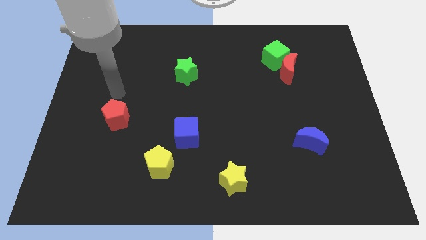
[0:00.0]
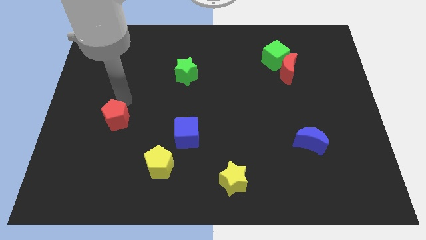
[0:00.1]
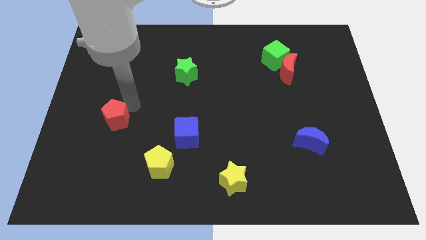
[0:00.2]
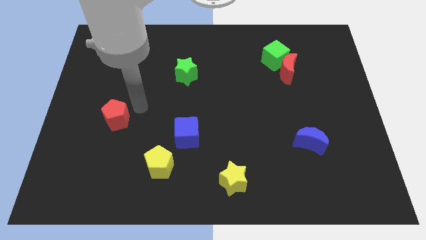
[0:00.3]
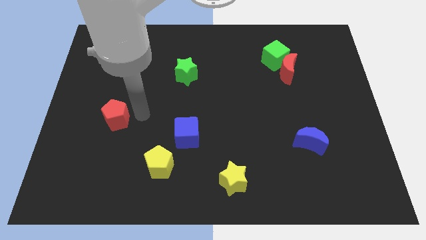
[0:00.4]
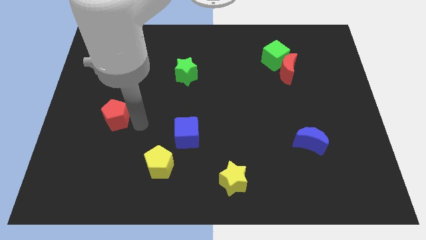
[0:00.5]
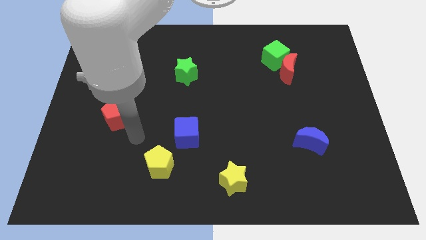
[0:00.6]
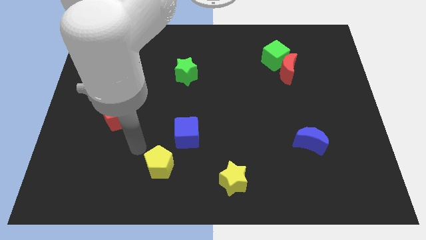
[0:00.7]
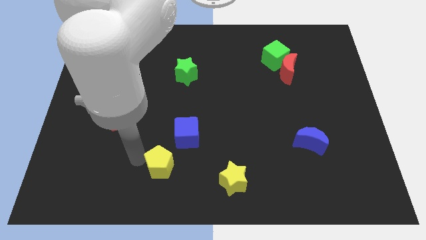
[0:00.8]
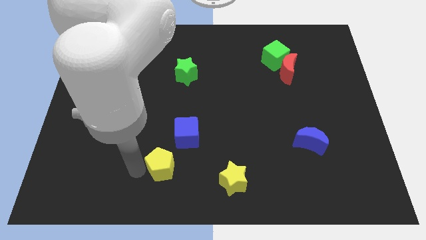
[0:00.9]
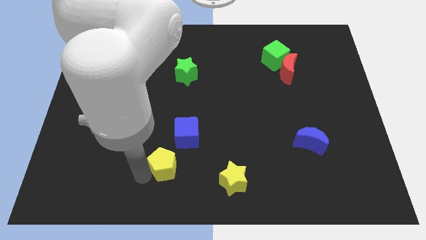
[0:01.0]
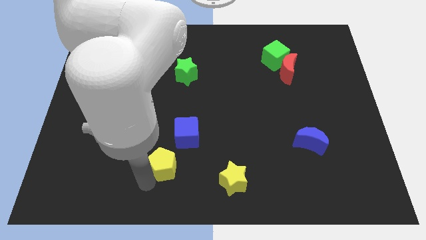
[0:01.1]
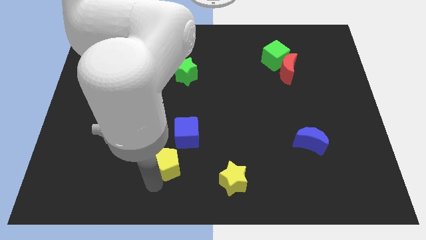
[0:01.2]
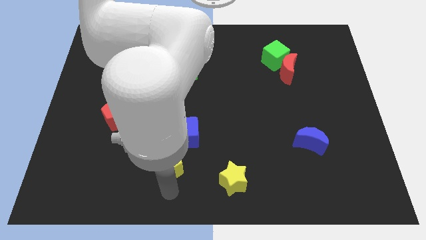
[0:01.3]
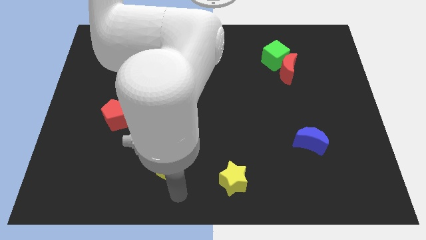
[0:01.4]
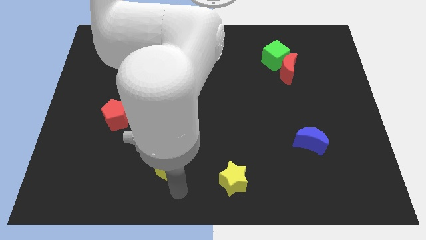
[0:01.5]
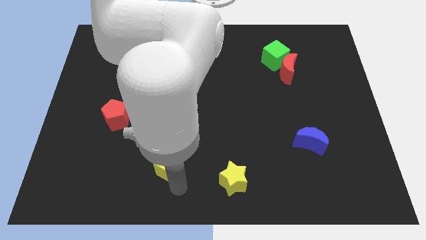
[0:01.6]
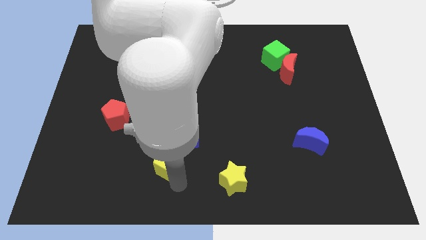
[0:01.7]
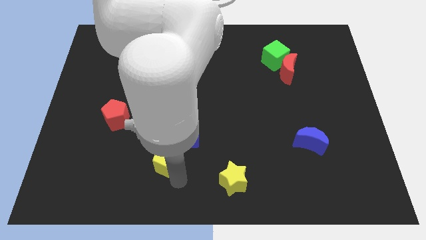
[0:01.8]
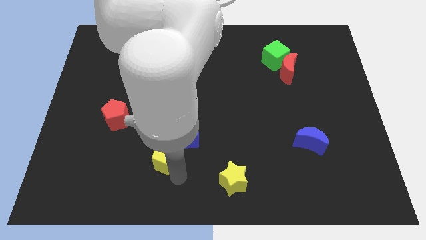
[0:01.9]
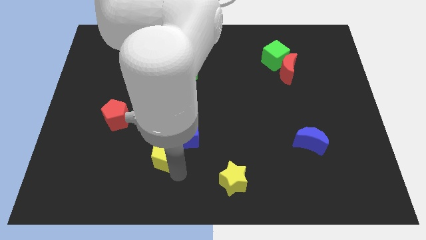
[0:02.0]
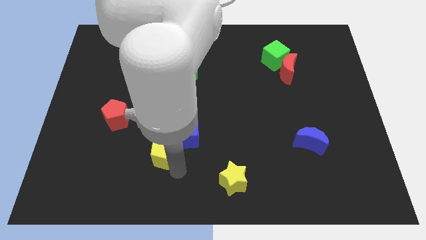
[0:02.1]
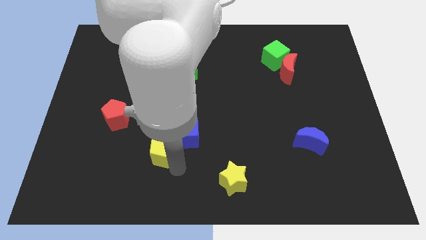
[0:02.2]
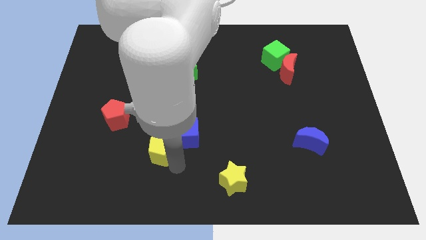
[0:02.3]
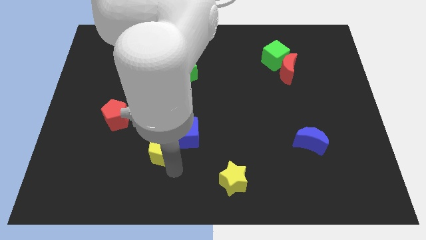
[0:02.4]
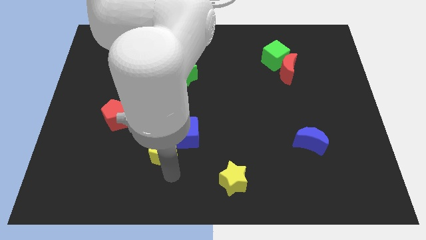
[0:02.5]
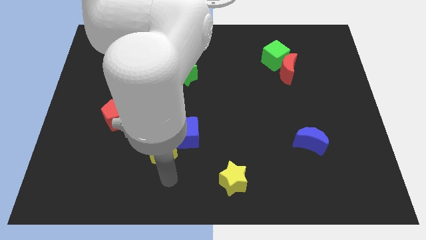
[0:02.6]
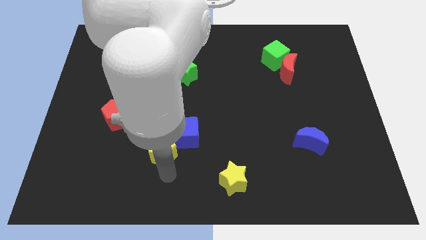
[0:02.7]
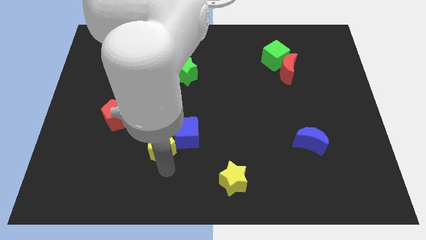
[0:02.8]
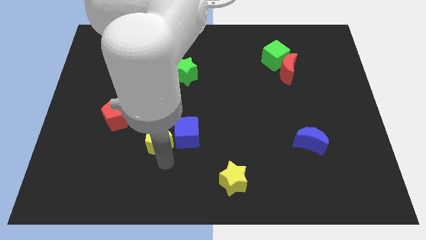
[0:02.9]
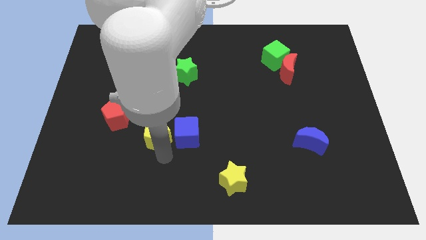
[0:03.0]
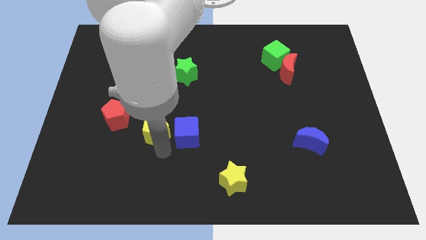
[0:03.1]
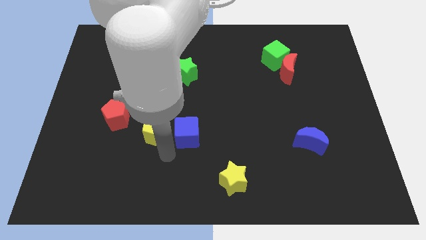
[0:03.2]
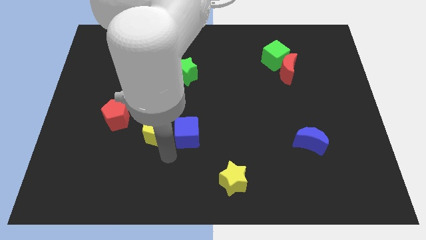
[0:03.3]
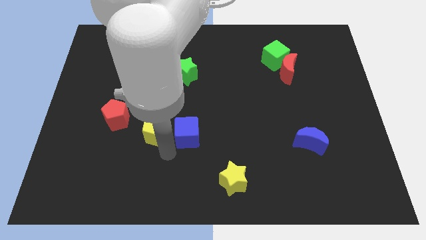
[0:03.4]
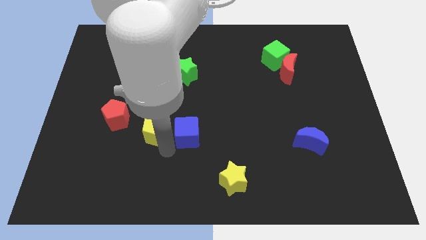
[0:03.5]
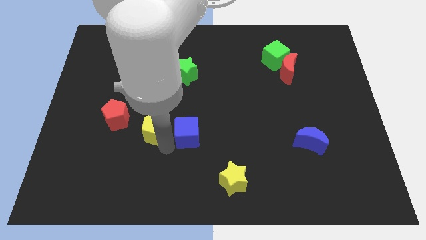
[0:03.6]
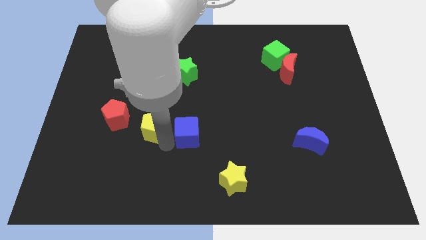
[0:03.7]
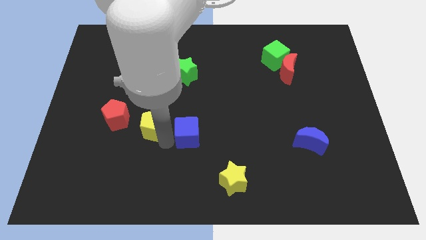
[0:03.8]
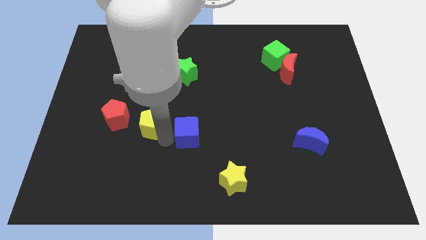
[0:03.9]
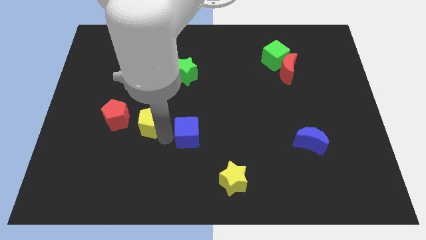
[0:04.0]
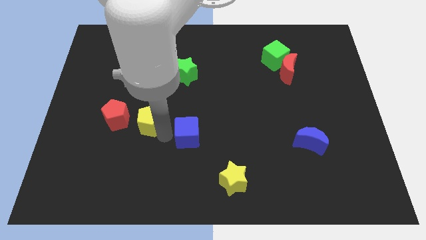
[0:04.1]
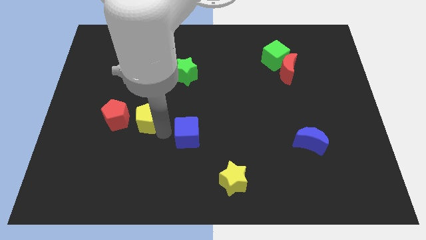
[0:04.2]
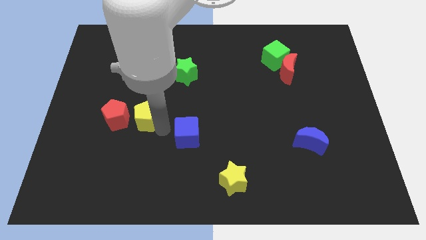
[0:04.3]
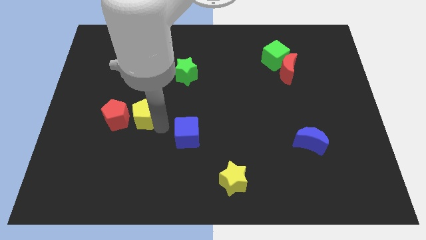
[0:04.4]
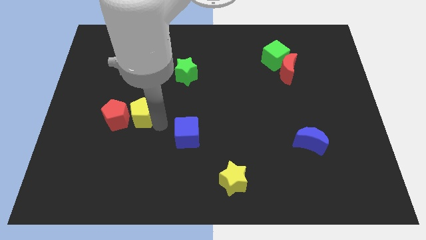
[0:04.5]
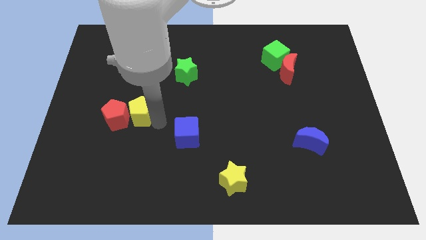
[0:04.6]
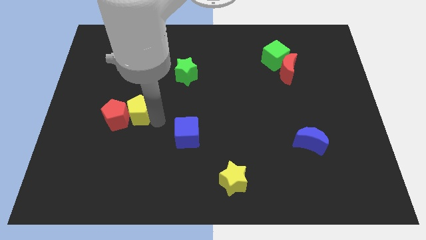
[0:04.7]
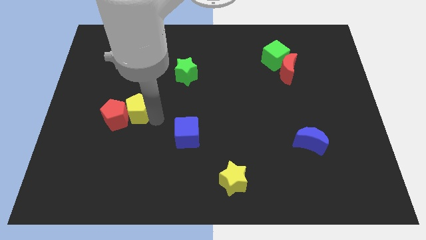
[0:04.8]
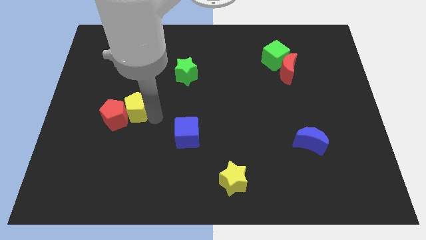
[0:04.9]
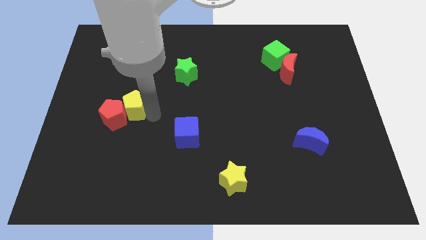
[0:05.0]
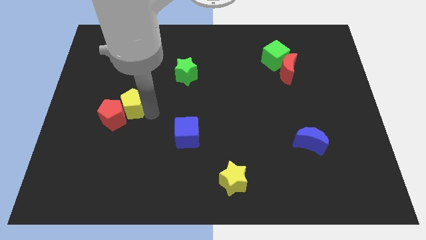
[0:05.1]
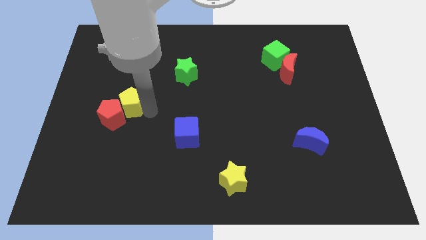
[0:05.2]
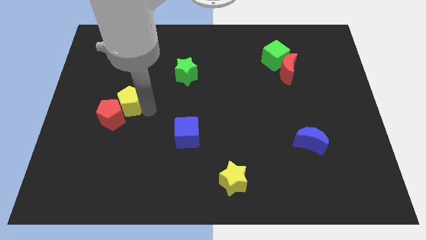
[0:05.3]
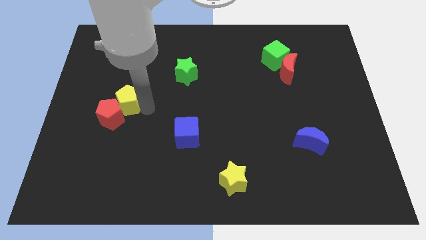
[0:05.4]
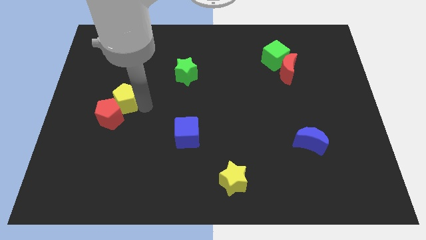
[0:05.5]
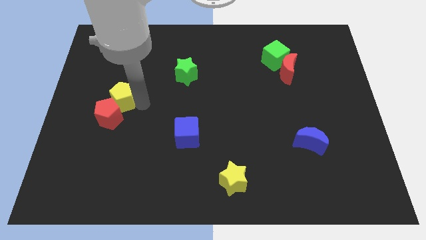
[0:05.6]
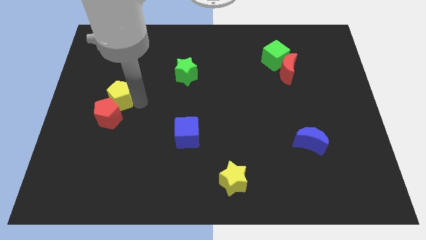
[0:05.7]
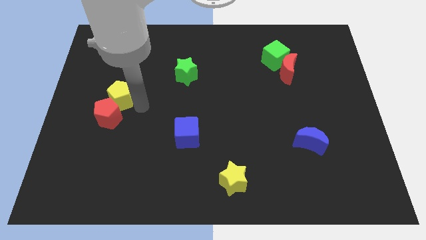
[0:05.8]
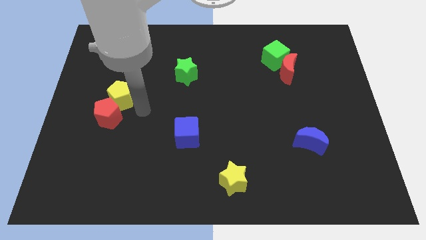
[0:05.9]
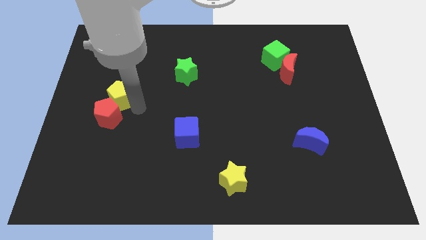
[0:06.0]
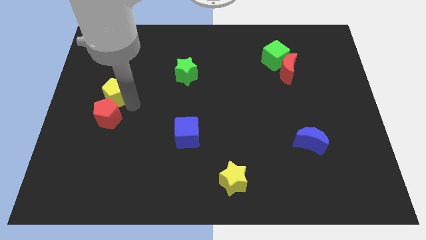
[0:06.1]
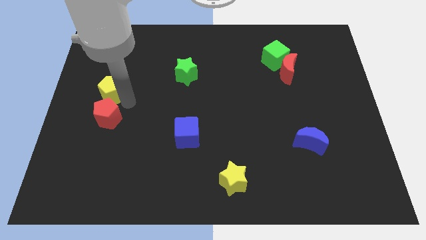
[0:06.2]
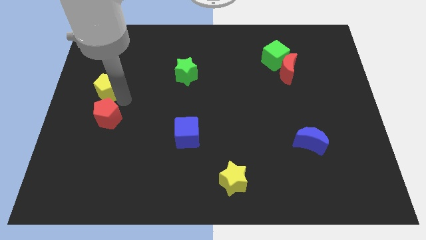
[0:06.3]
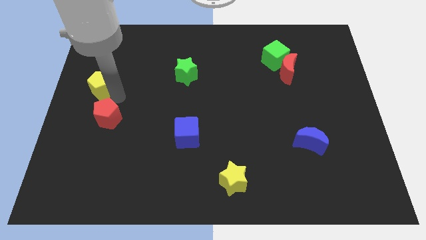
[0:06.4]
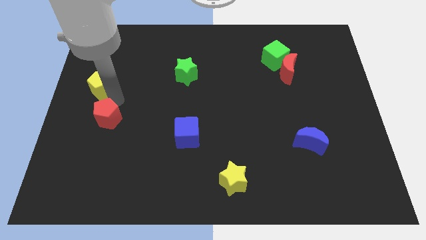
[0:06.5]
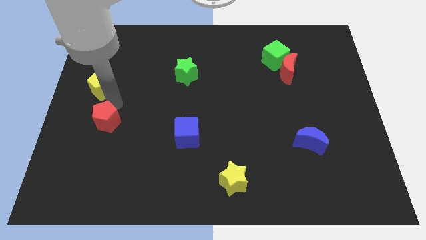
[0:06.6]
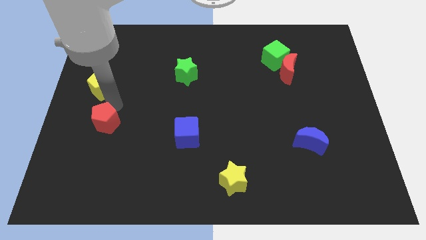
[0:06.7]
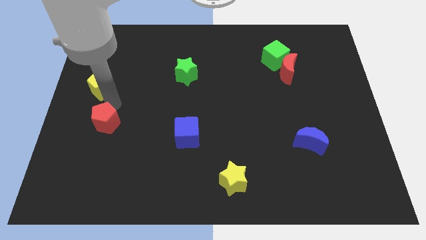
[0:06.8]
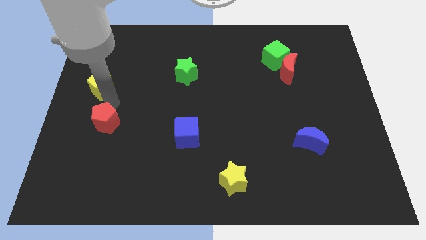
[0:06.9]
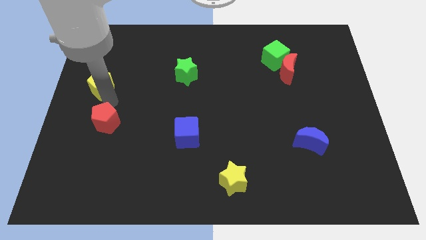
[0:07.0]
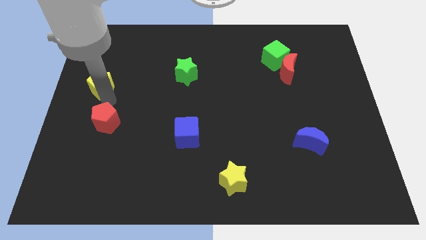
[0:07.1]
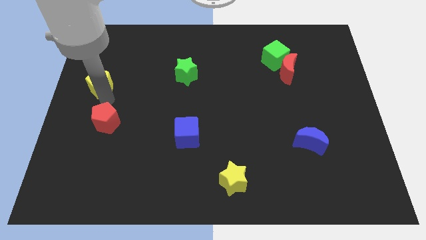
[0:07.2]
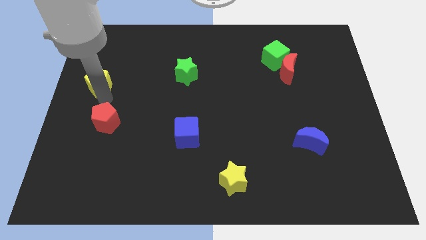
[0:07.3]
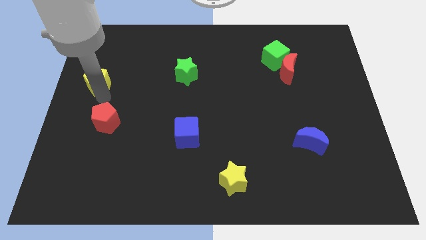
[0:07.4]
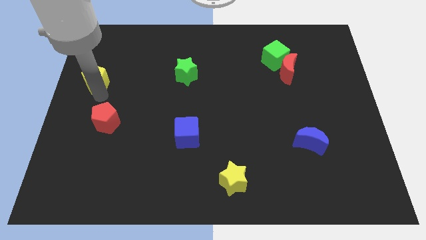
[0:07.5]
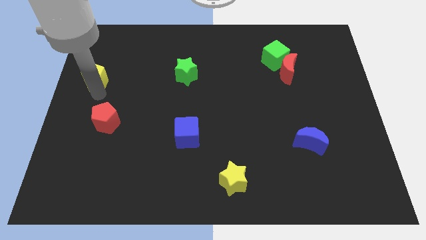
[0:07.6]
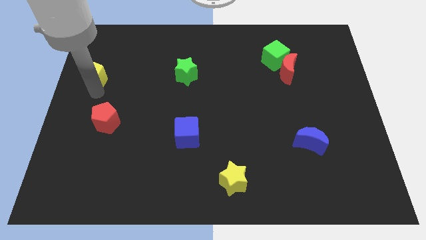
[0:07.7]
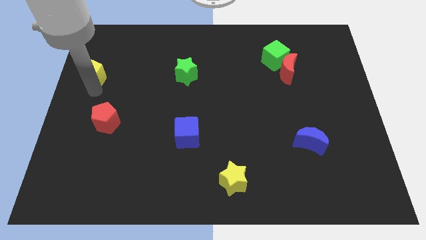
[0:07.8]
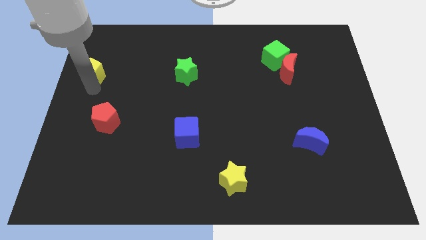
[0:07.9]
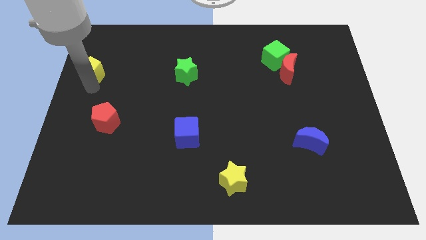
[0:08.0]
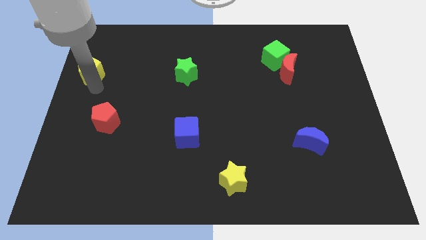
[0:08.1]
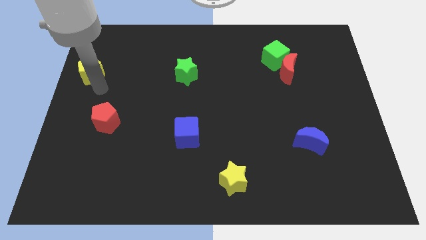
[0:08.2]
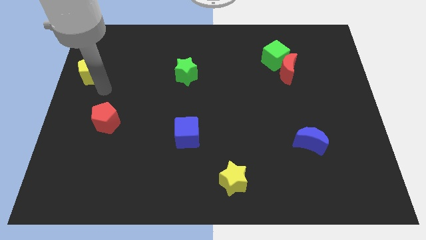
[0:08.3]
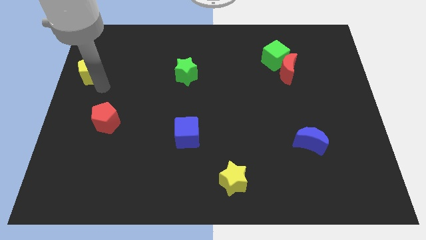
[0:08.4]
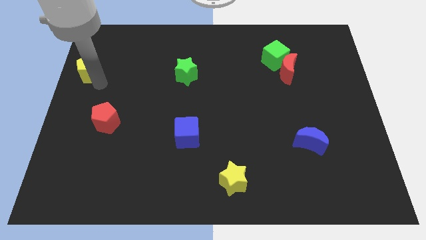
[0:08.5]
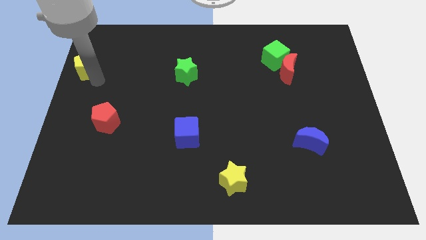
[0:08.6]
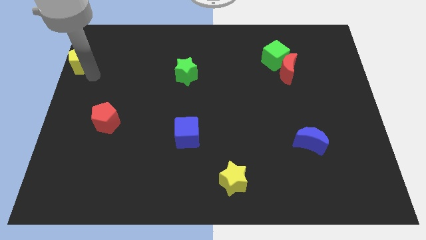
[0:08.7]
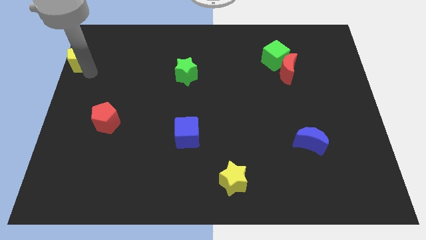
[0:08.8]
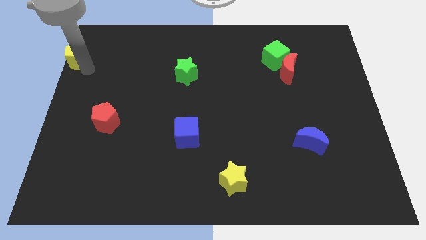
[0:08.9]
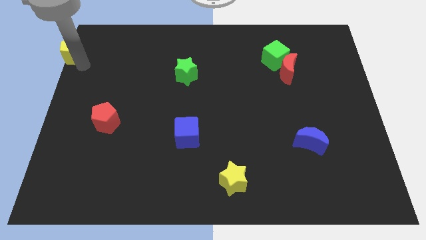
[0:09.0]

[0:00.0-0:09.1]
push the yellow pentagon to the upper left corner
